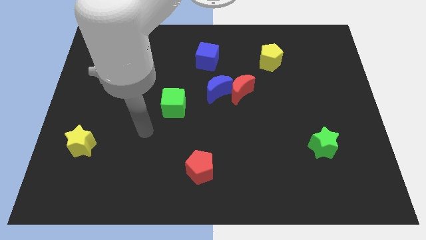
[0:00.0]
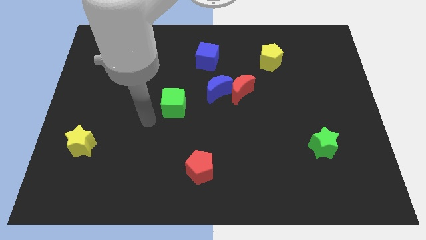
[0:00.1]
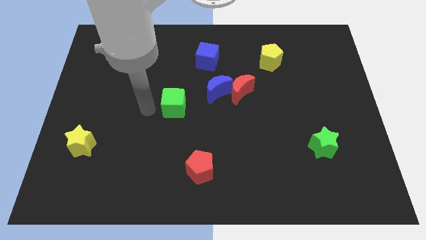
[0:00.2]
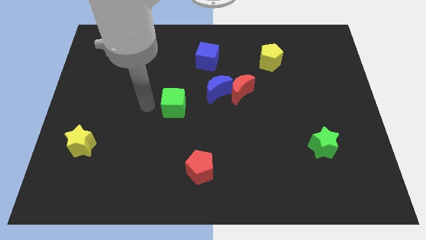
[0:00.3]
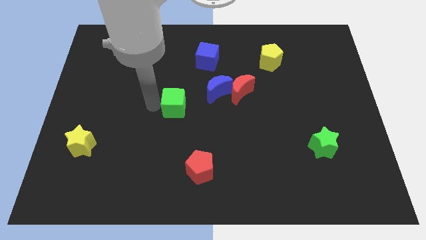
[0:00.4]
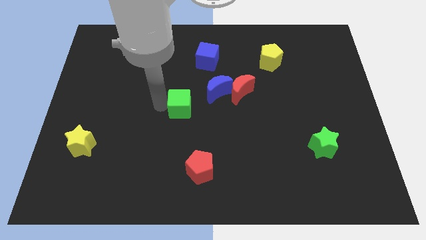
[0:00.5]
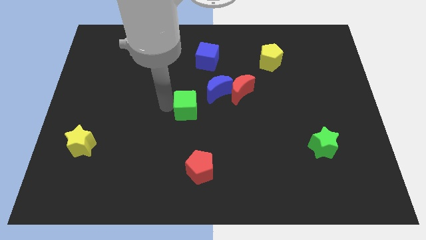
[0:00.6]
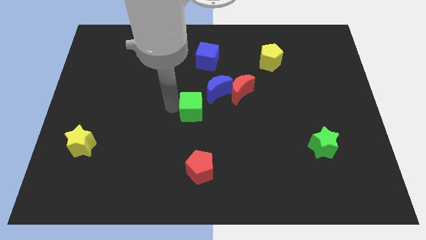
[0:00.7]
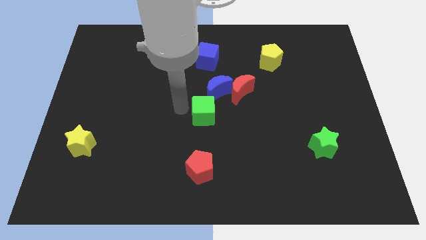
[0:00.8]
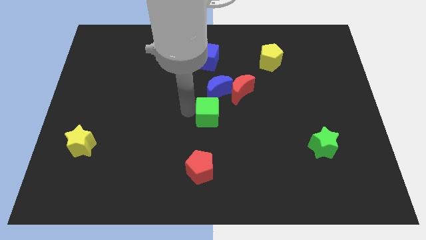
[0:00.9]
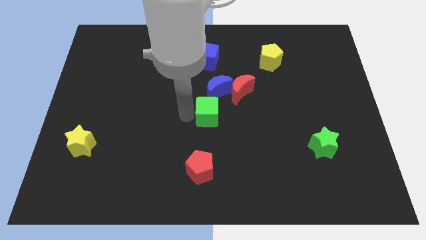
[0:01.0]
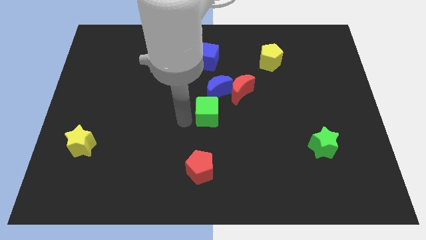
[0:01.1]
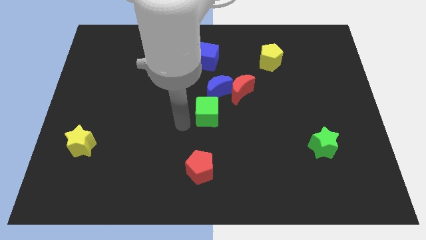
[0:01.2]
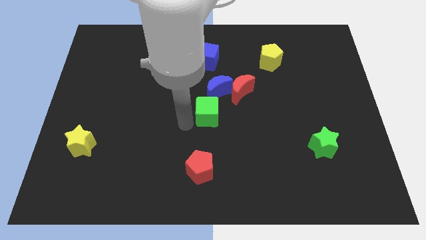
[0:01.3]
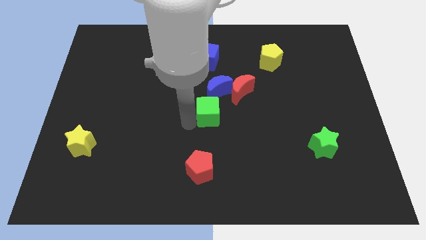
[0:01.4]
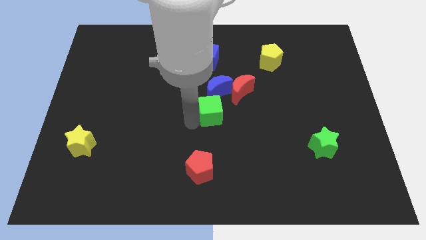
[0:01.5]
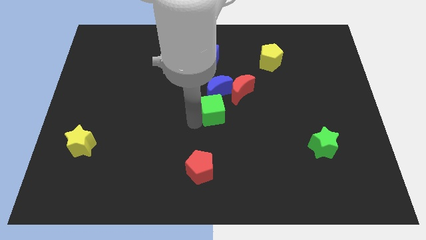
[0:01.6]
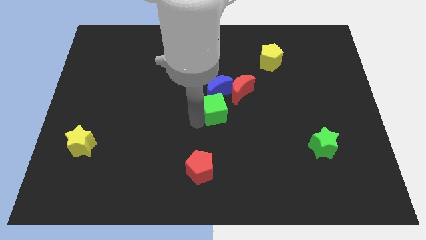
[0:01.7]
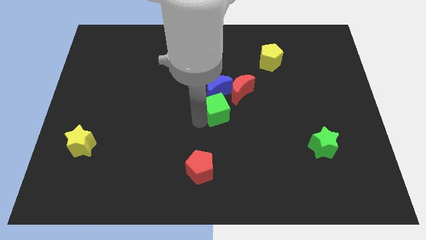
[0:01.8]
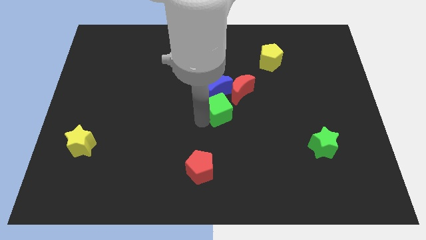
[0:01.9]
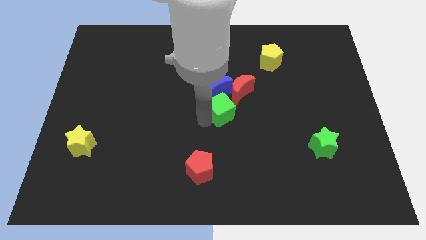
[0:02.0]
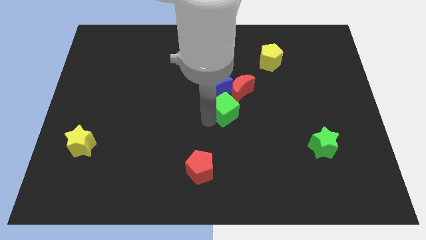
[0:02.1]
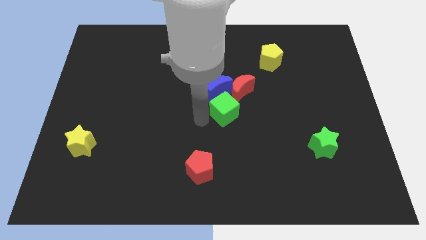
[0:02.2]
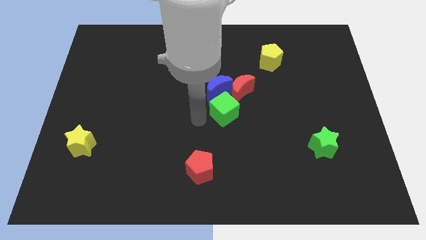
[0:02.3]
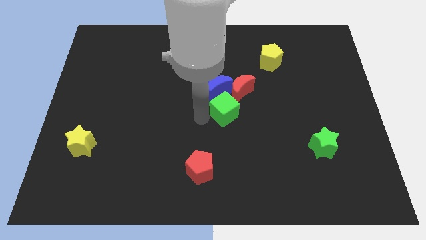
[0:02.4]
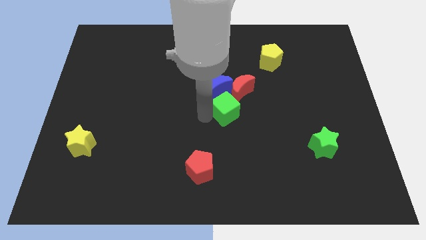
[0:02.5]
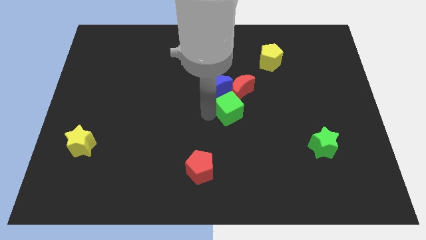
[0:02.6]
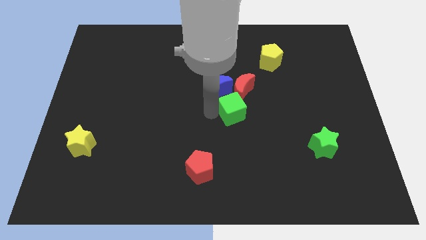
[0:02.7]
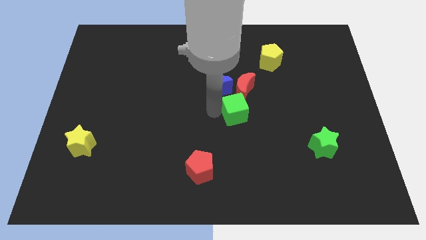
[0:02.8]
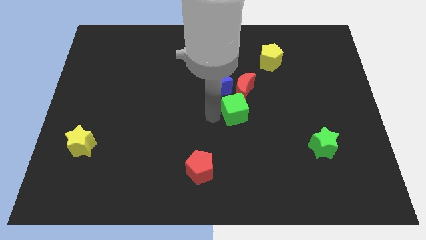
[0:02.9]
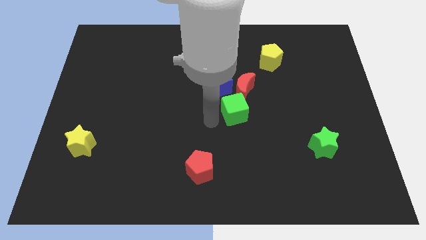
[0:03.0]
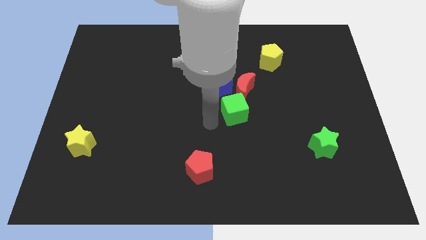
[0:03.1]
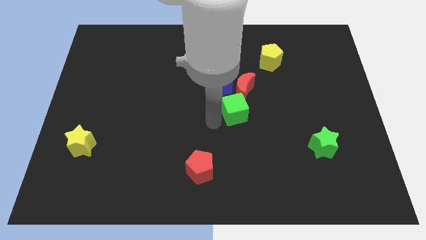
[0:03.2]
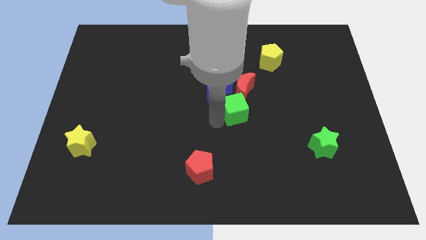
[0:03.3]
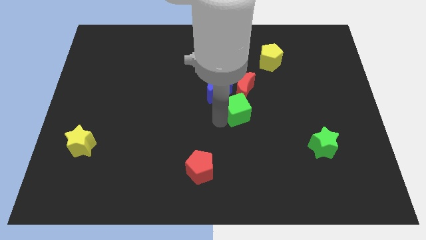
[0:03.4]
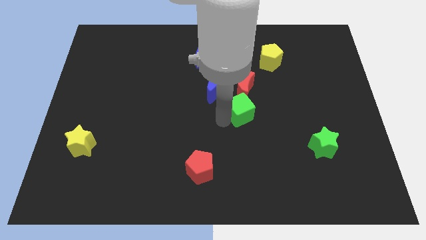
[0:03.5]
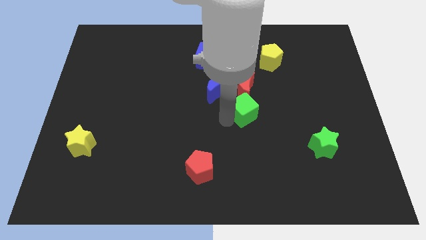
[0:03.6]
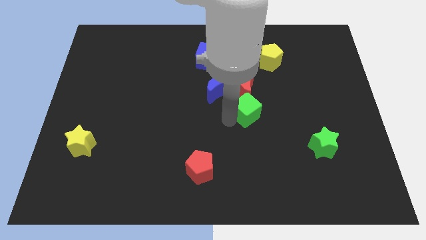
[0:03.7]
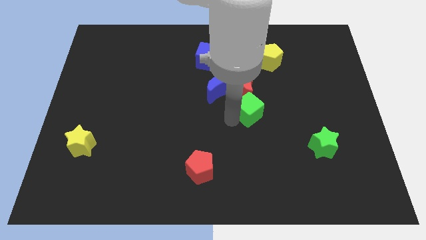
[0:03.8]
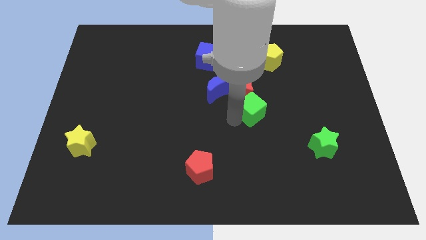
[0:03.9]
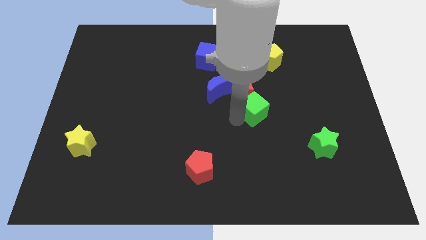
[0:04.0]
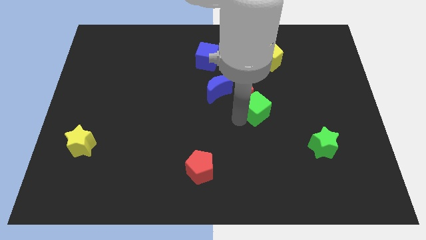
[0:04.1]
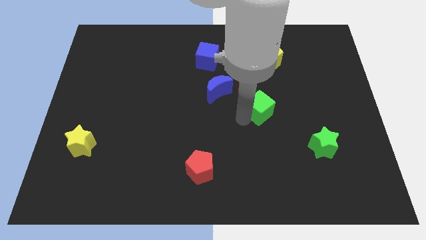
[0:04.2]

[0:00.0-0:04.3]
slide the green cube right

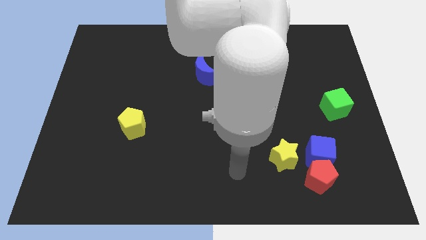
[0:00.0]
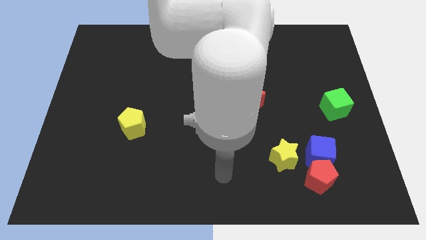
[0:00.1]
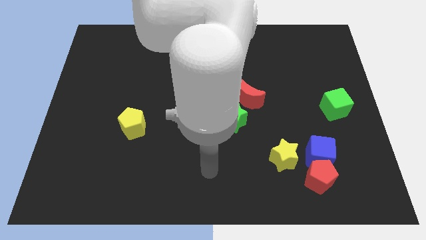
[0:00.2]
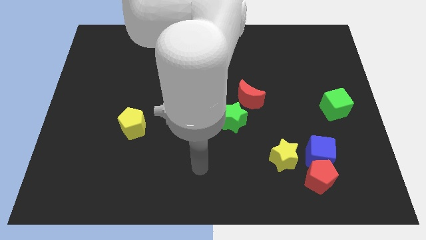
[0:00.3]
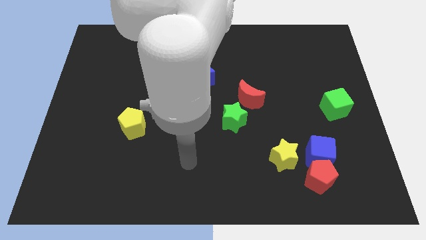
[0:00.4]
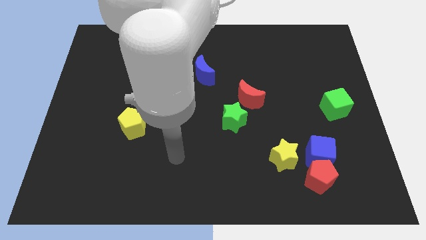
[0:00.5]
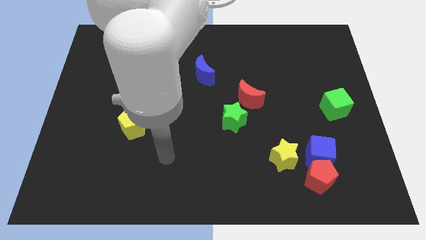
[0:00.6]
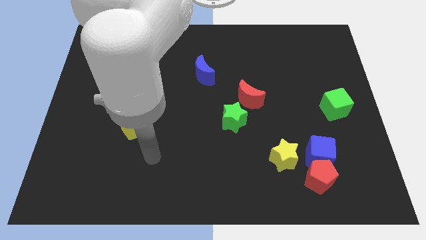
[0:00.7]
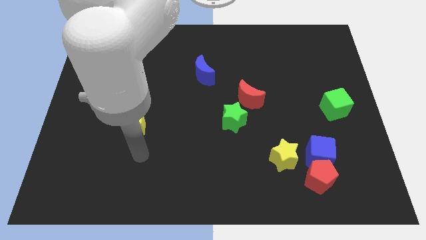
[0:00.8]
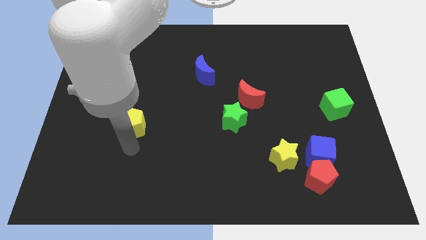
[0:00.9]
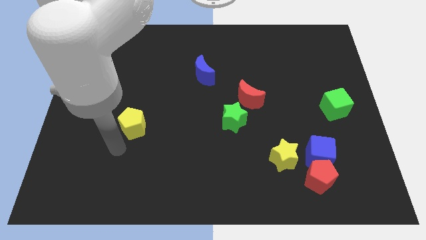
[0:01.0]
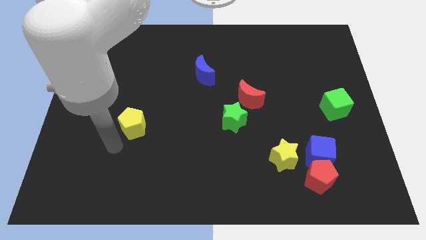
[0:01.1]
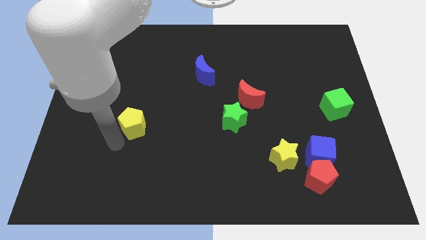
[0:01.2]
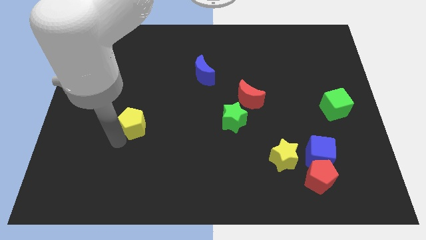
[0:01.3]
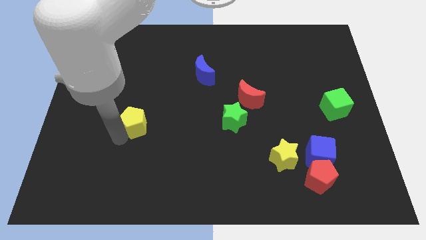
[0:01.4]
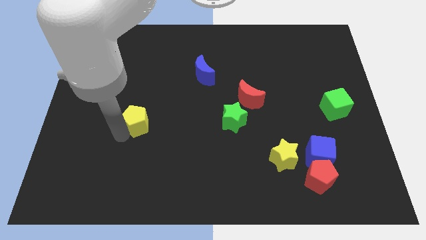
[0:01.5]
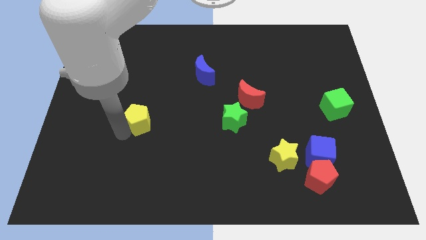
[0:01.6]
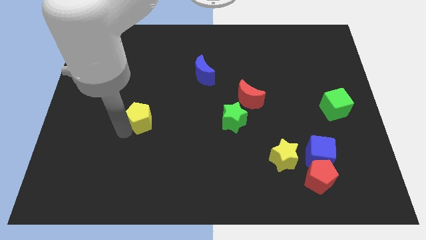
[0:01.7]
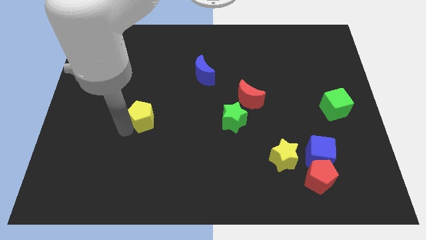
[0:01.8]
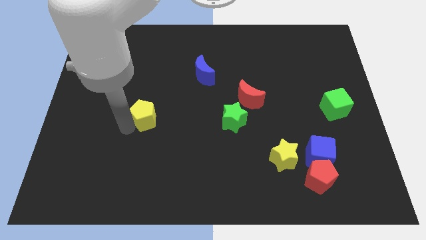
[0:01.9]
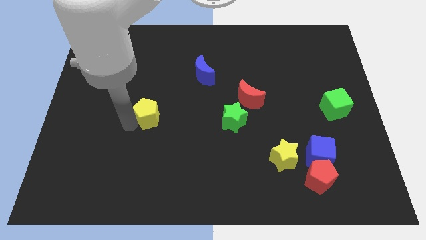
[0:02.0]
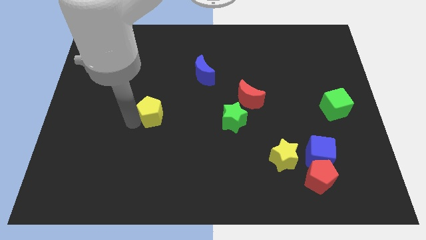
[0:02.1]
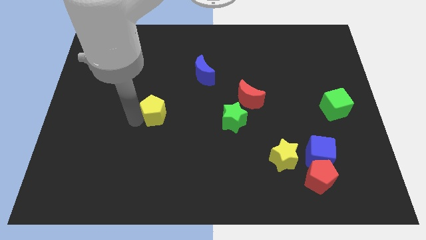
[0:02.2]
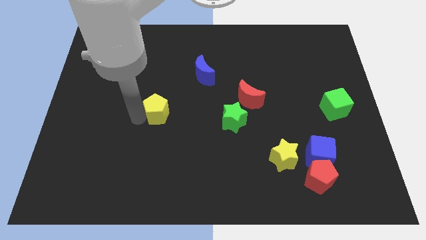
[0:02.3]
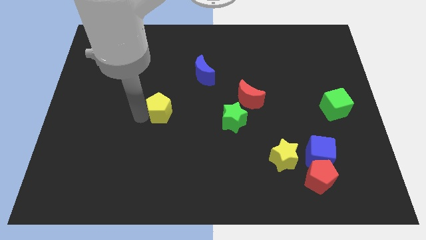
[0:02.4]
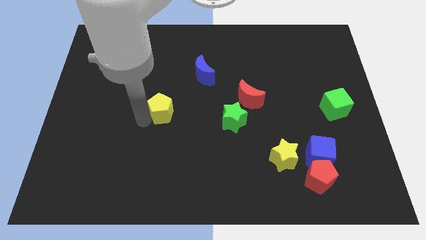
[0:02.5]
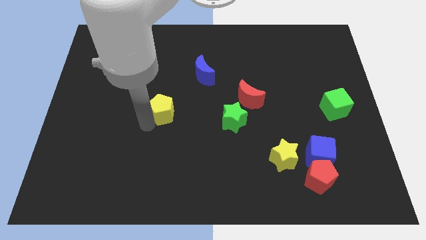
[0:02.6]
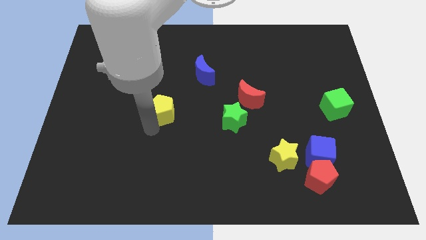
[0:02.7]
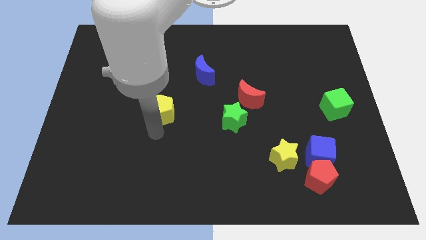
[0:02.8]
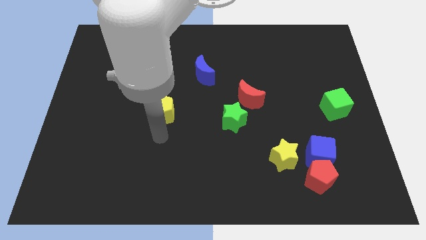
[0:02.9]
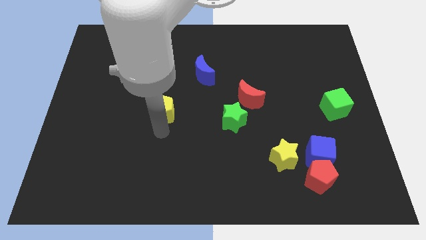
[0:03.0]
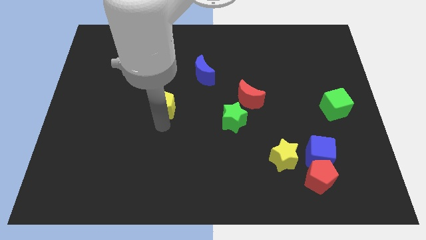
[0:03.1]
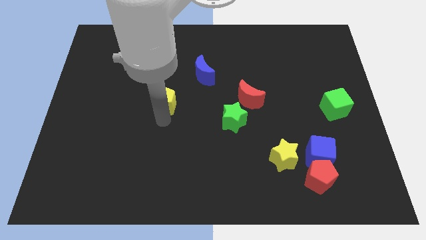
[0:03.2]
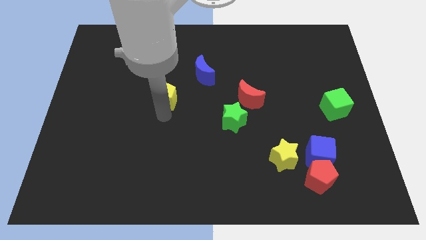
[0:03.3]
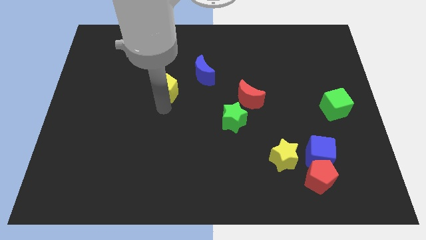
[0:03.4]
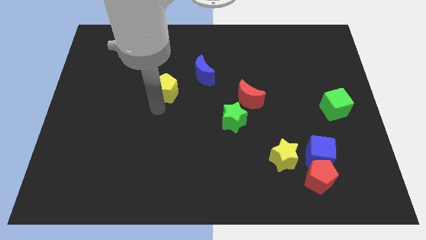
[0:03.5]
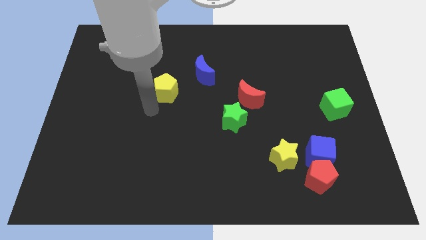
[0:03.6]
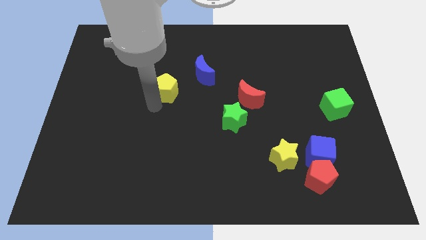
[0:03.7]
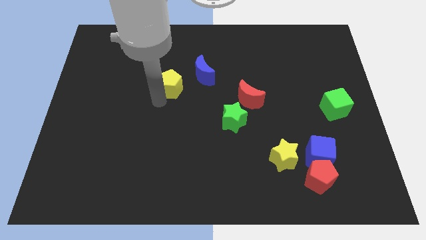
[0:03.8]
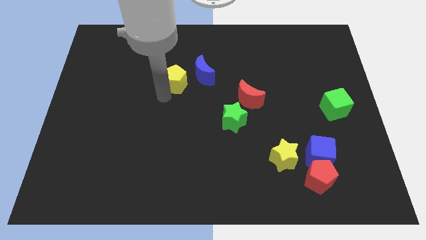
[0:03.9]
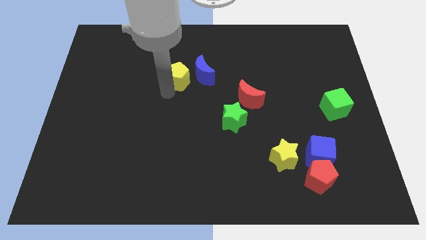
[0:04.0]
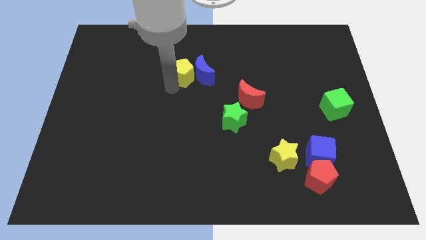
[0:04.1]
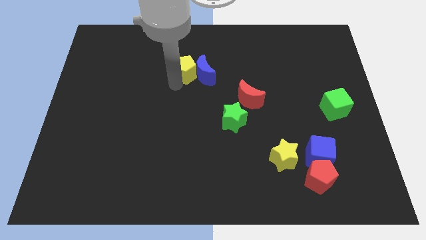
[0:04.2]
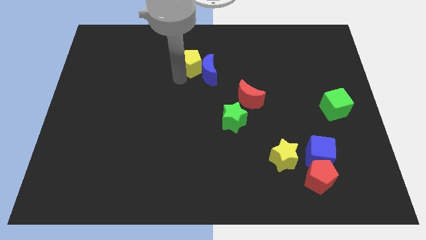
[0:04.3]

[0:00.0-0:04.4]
move the yellow pentagon up and to the right
